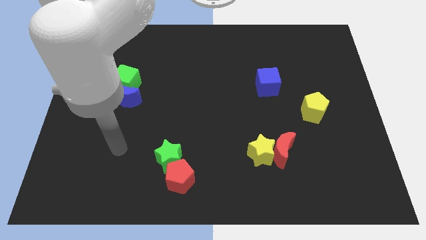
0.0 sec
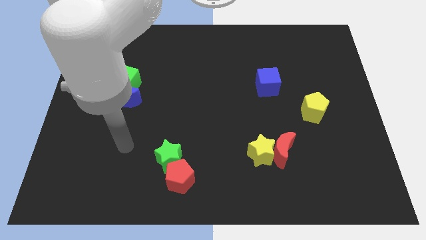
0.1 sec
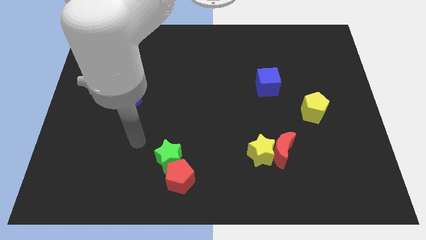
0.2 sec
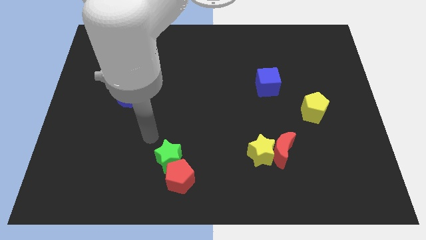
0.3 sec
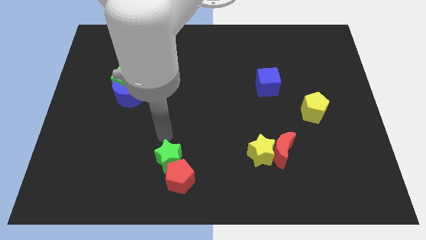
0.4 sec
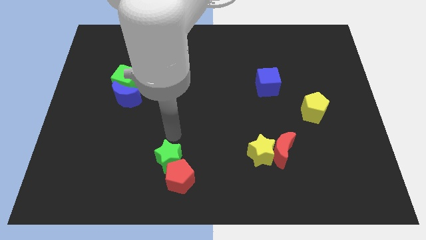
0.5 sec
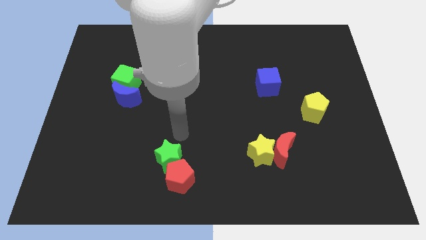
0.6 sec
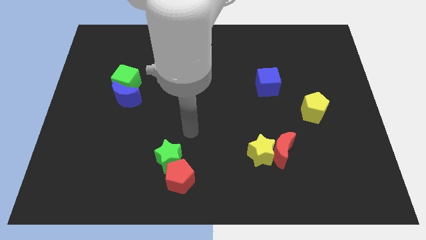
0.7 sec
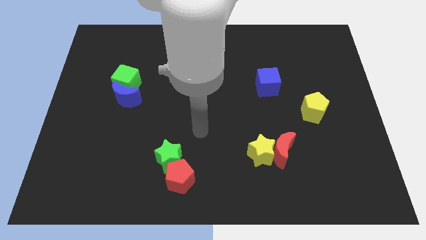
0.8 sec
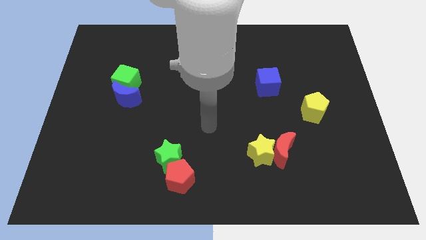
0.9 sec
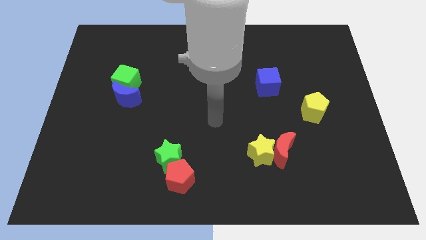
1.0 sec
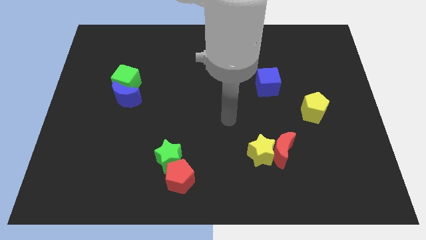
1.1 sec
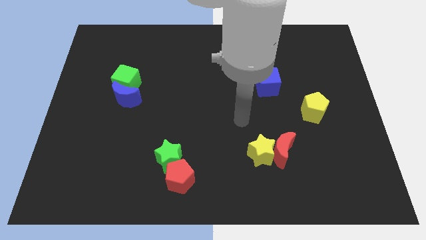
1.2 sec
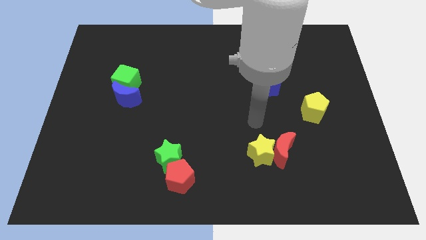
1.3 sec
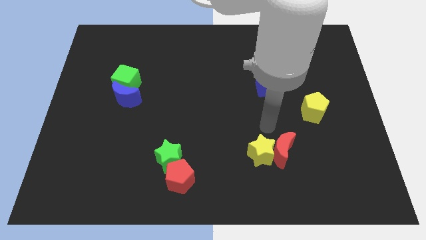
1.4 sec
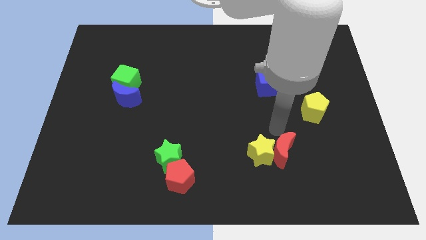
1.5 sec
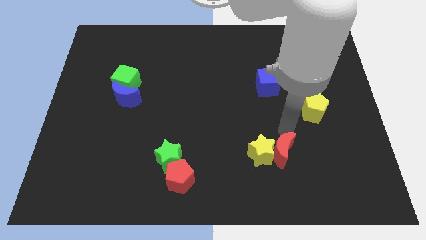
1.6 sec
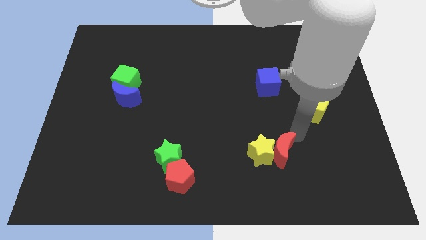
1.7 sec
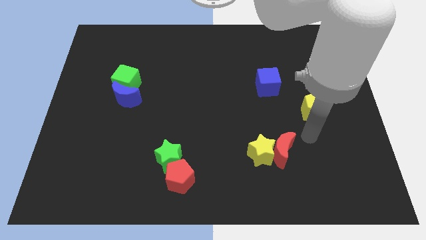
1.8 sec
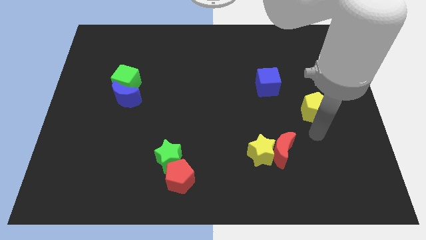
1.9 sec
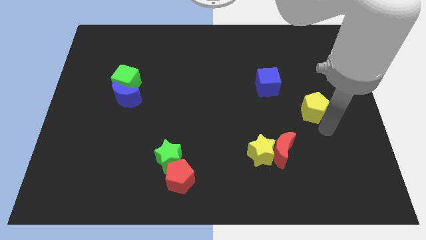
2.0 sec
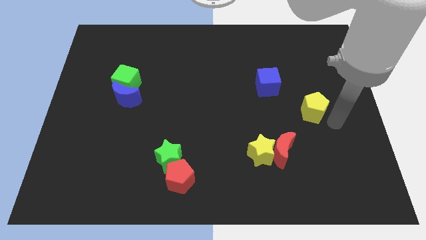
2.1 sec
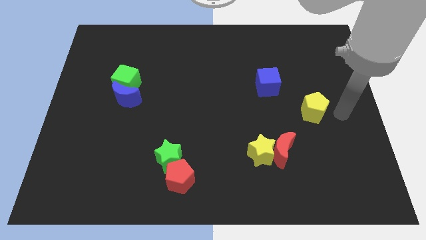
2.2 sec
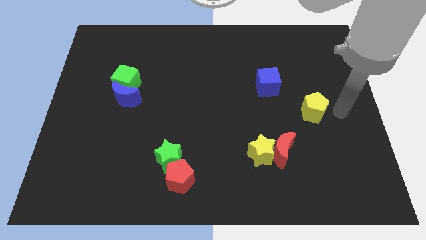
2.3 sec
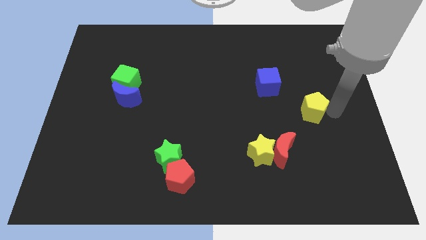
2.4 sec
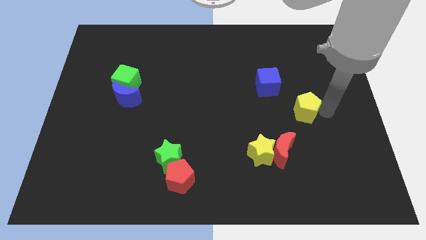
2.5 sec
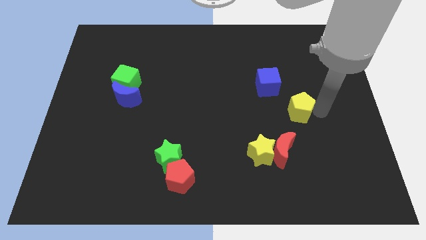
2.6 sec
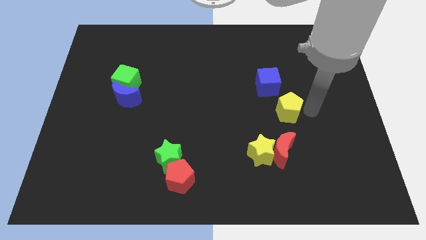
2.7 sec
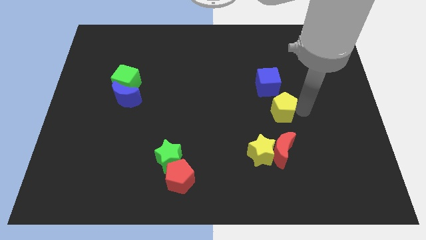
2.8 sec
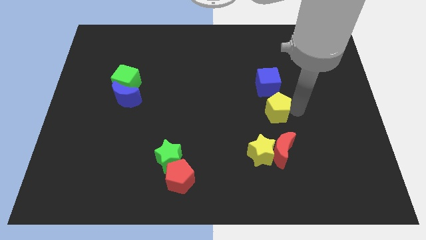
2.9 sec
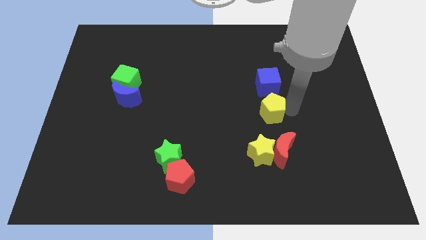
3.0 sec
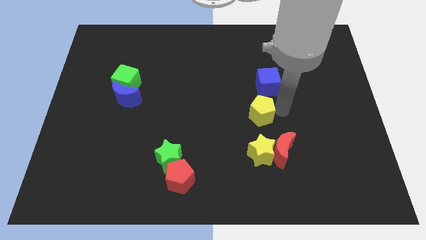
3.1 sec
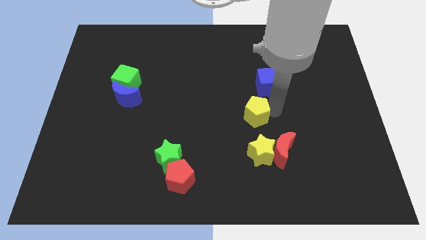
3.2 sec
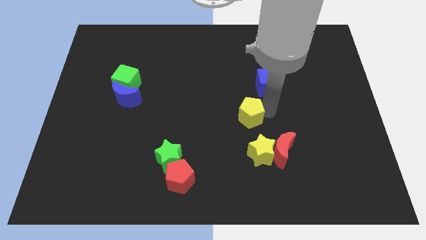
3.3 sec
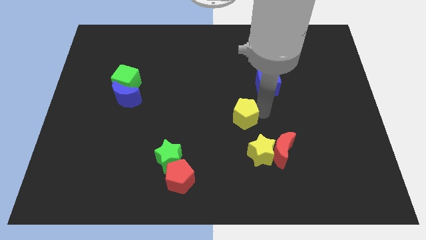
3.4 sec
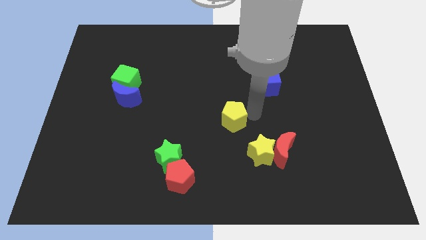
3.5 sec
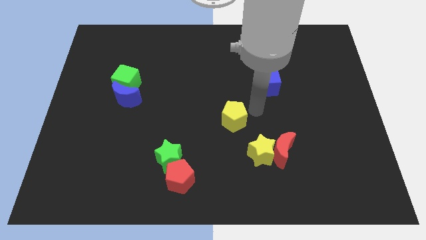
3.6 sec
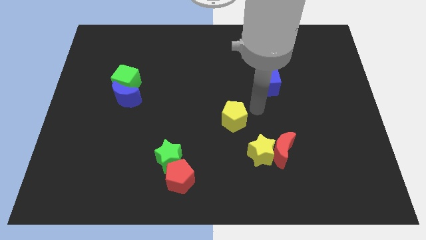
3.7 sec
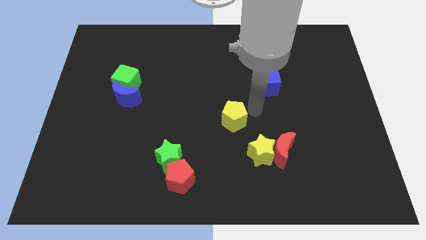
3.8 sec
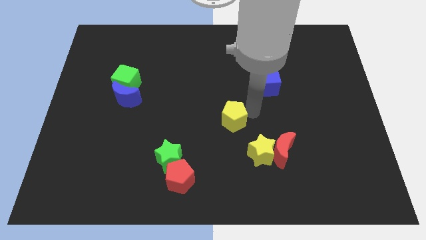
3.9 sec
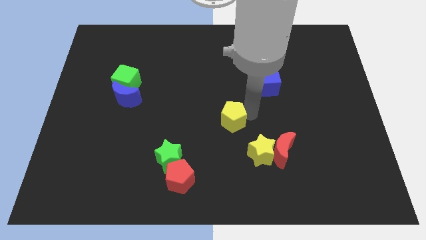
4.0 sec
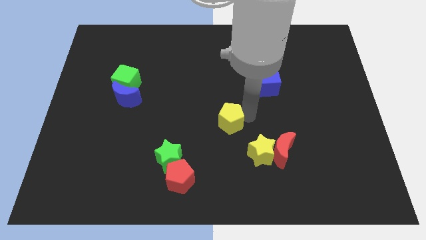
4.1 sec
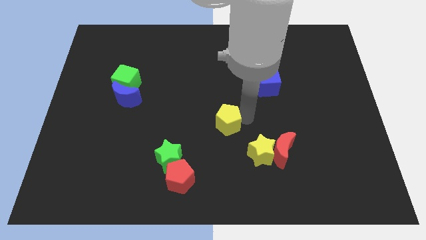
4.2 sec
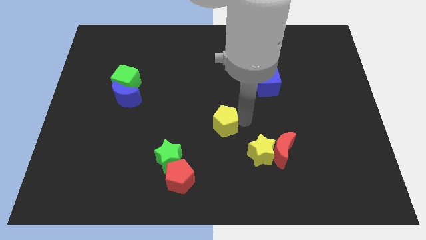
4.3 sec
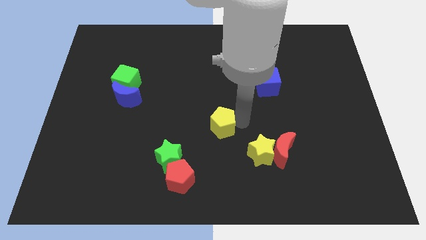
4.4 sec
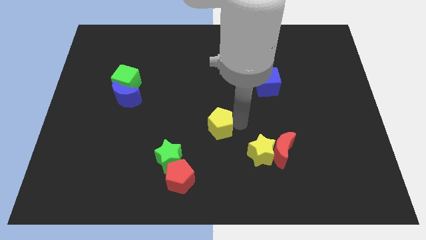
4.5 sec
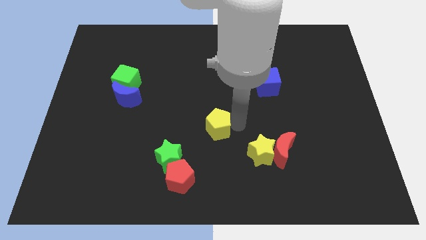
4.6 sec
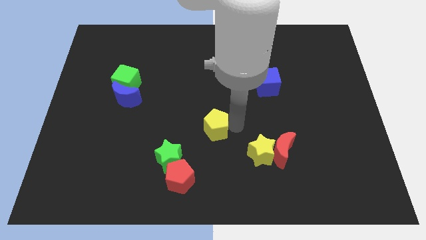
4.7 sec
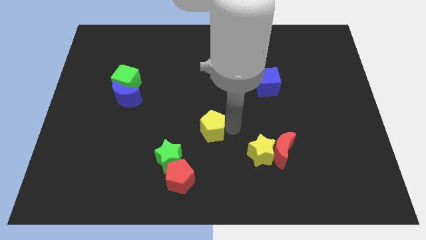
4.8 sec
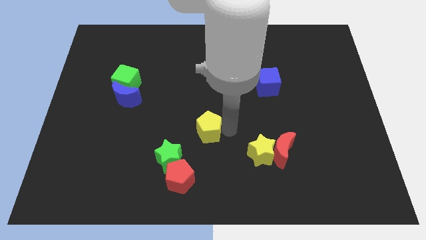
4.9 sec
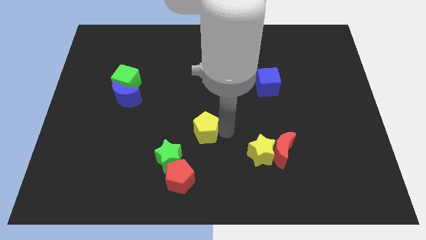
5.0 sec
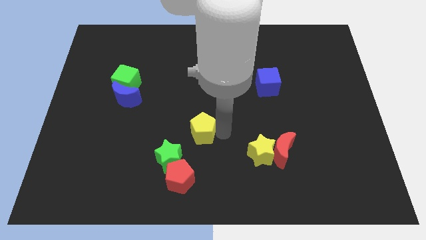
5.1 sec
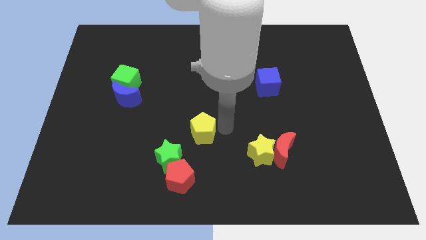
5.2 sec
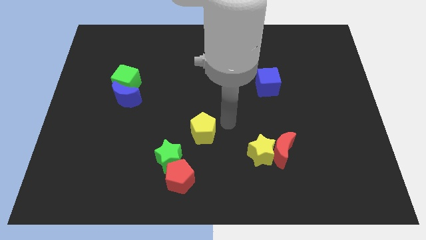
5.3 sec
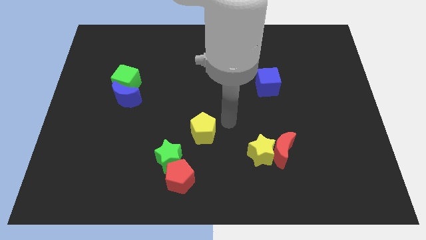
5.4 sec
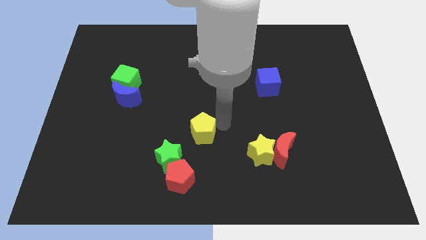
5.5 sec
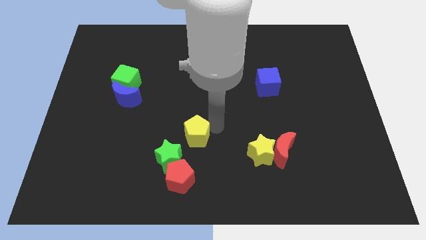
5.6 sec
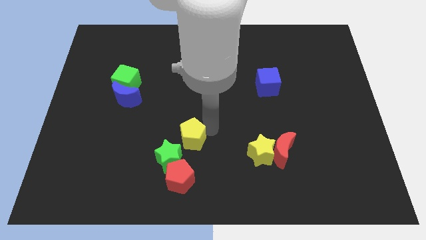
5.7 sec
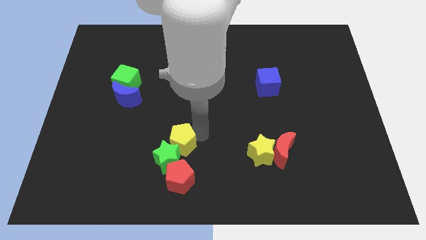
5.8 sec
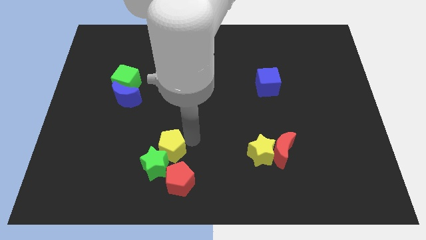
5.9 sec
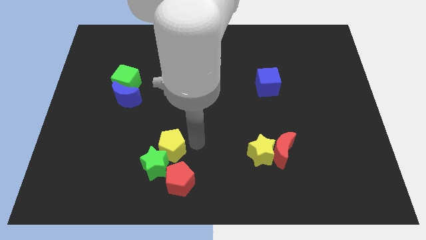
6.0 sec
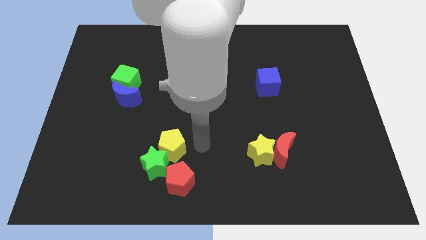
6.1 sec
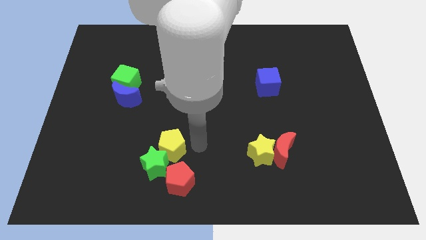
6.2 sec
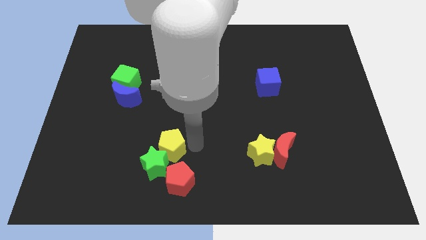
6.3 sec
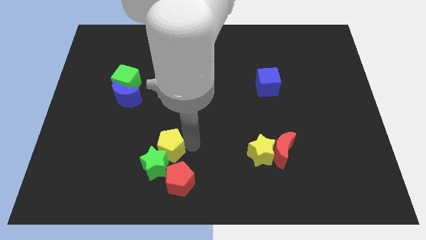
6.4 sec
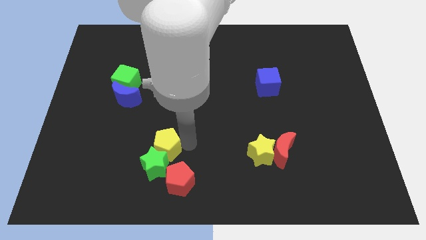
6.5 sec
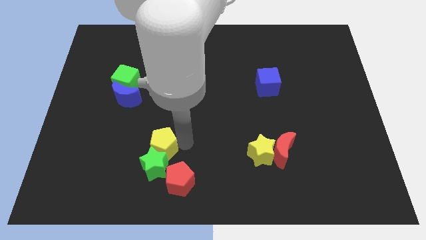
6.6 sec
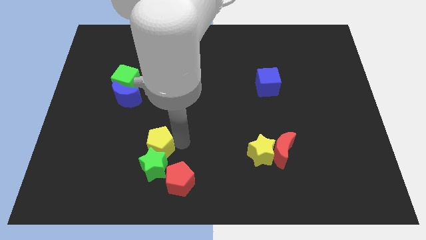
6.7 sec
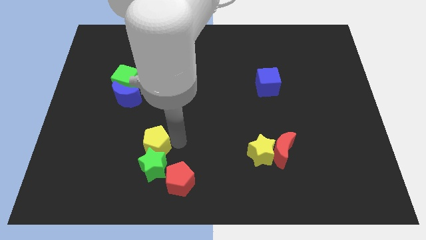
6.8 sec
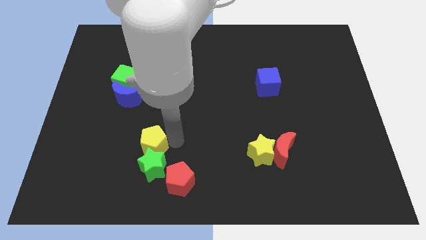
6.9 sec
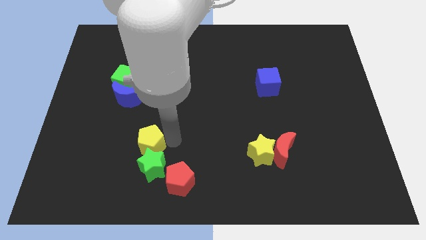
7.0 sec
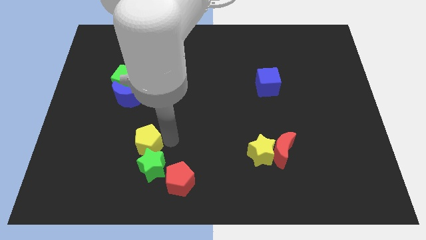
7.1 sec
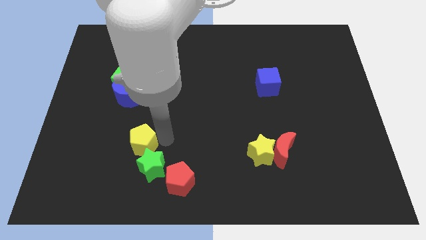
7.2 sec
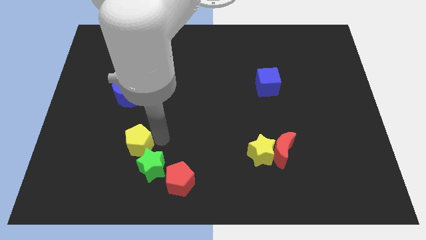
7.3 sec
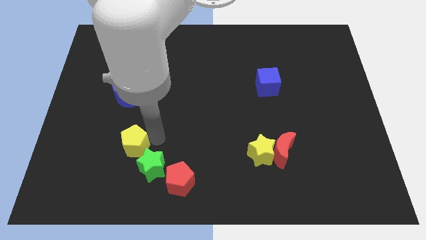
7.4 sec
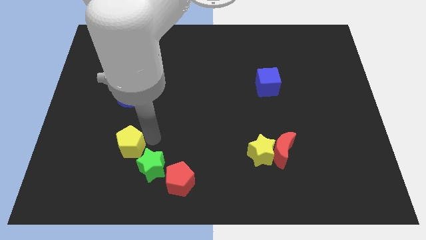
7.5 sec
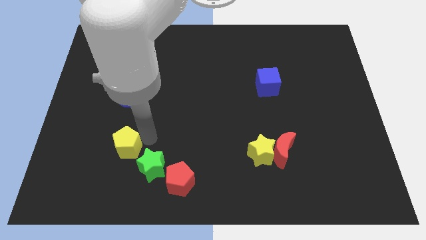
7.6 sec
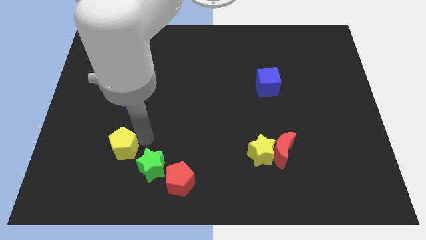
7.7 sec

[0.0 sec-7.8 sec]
move the yellow pentagon to the left of the green star

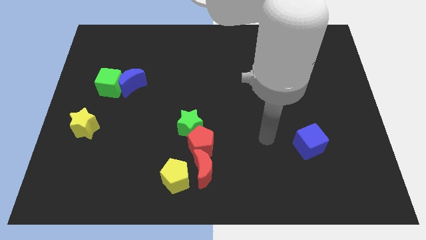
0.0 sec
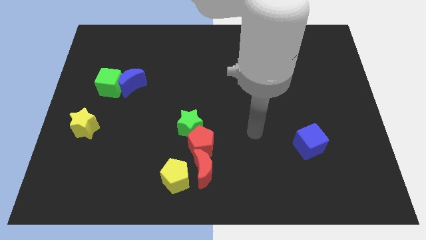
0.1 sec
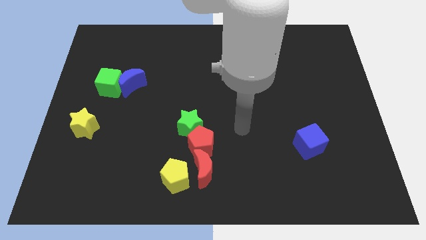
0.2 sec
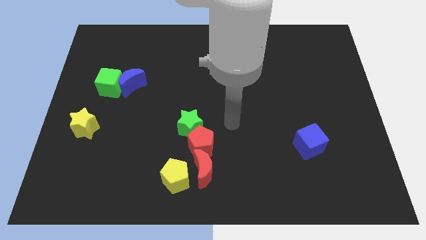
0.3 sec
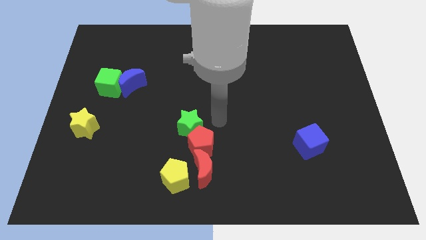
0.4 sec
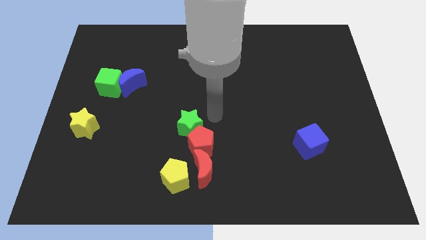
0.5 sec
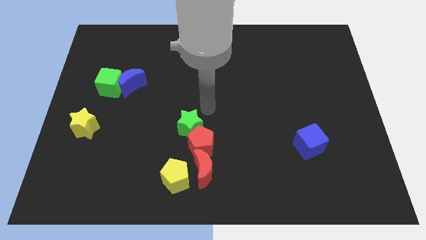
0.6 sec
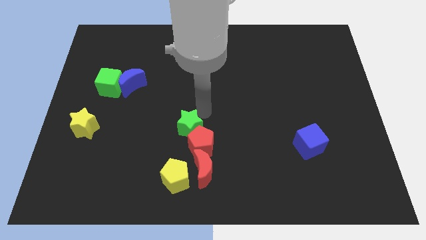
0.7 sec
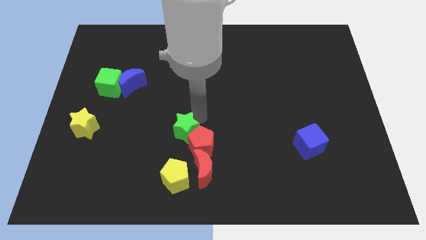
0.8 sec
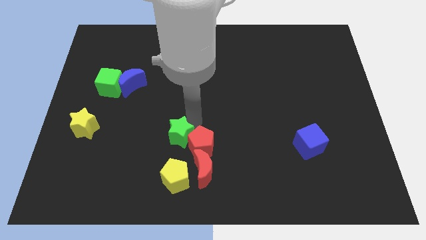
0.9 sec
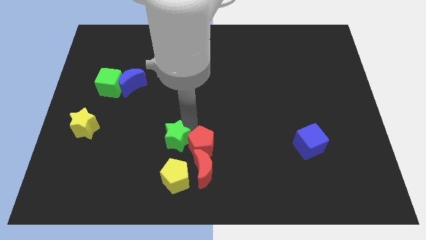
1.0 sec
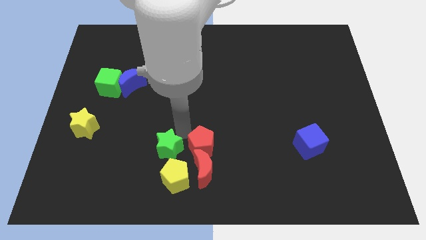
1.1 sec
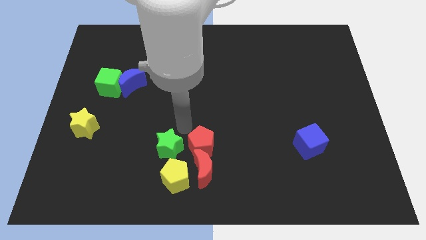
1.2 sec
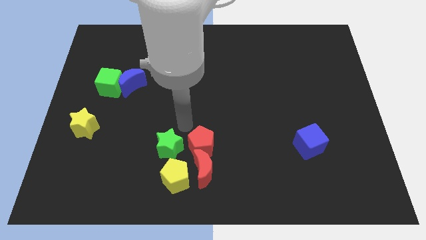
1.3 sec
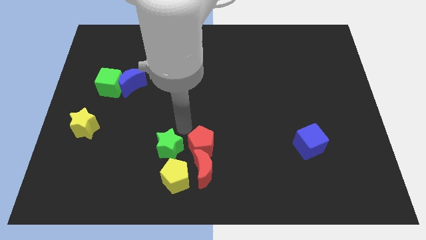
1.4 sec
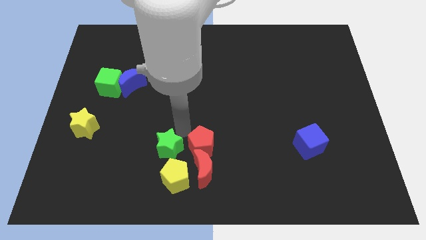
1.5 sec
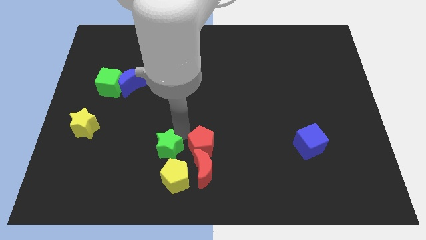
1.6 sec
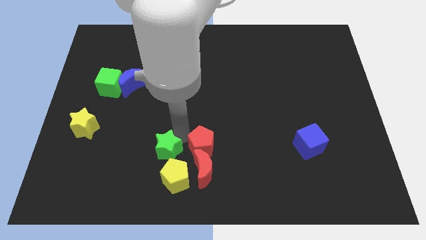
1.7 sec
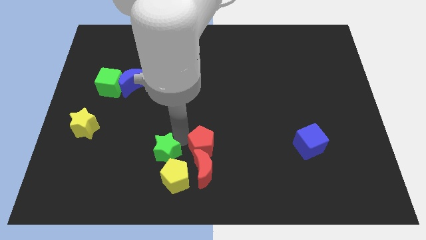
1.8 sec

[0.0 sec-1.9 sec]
push the green star to the left side of the red moon
